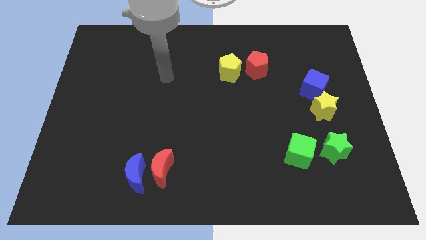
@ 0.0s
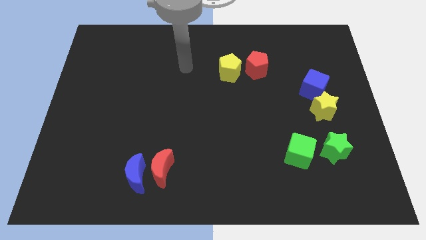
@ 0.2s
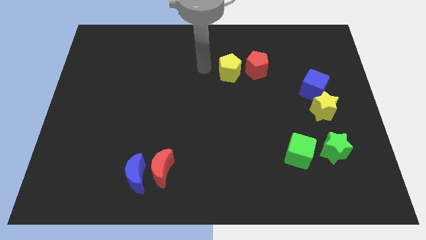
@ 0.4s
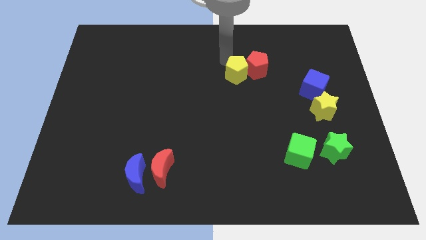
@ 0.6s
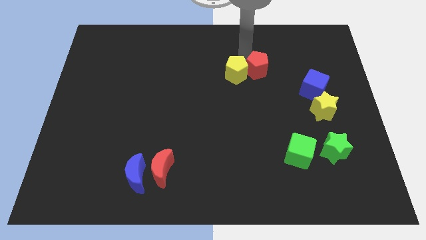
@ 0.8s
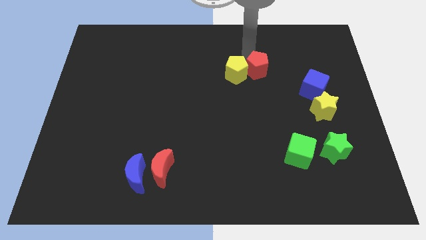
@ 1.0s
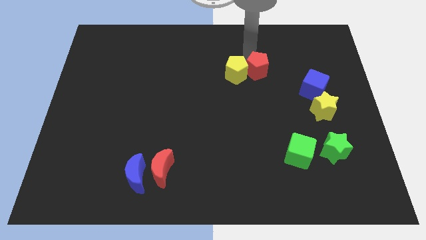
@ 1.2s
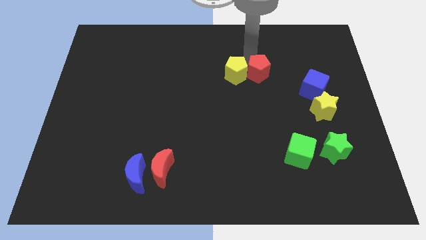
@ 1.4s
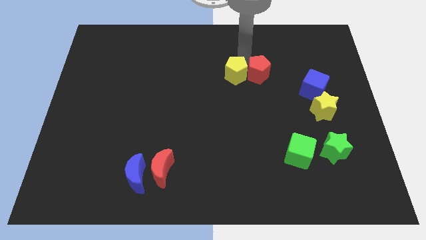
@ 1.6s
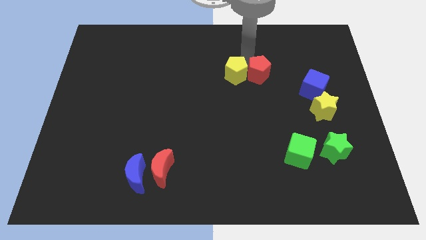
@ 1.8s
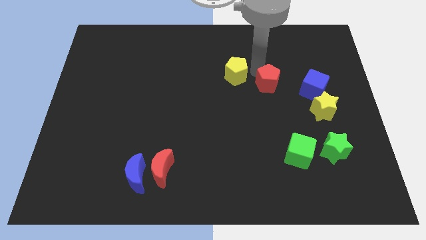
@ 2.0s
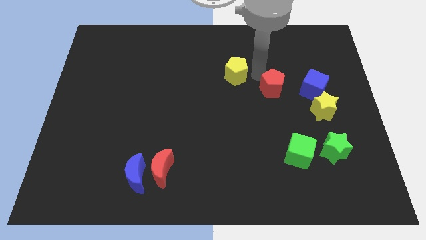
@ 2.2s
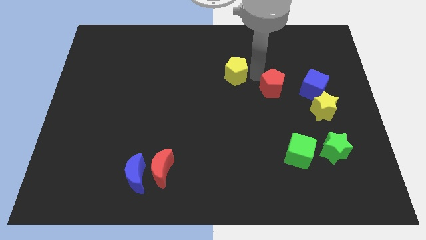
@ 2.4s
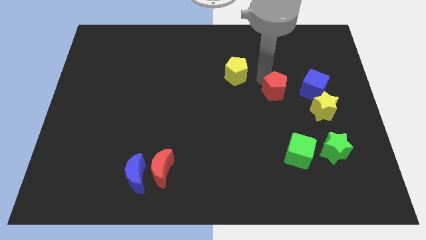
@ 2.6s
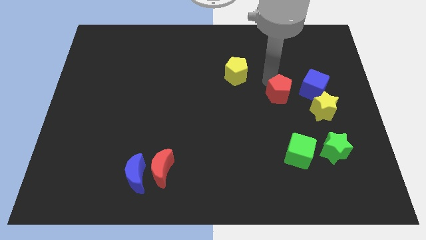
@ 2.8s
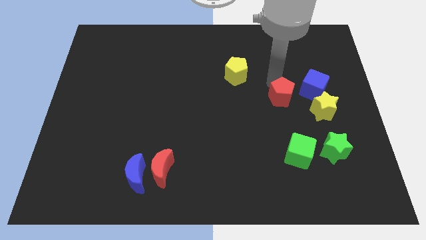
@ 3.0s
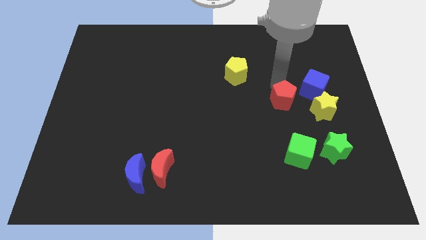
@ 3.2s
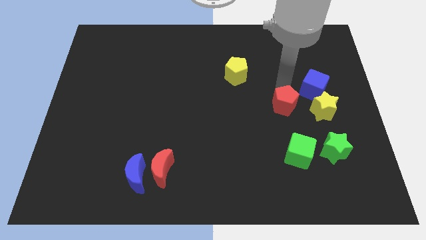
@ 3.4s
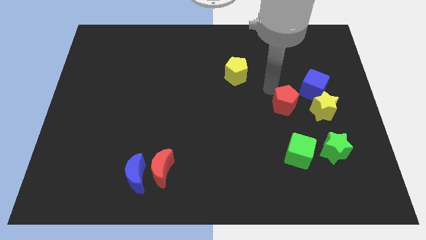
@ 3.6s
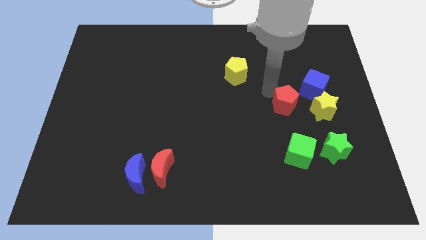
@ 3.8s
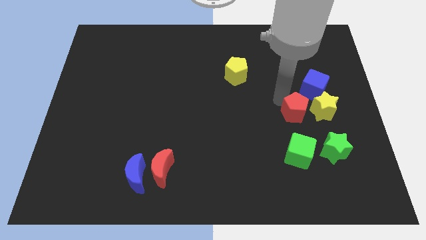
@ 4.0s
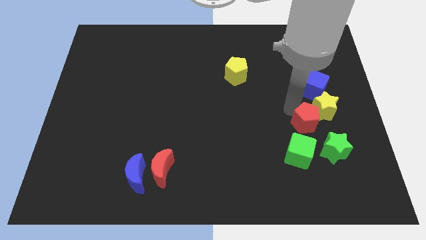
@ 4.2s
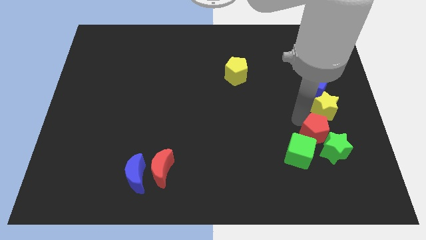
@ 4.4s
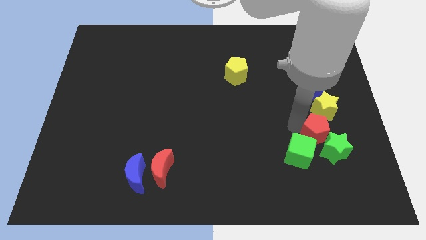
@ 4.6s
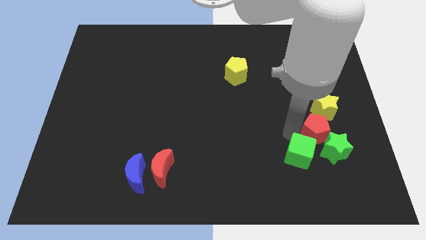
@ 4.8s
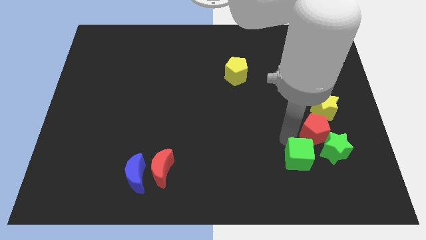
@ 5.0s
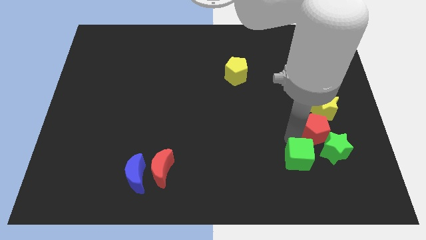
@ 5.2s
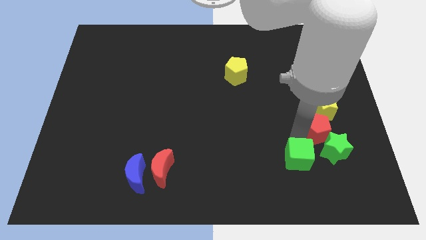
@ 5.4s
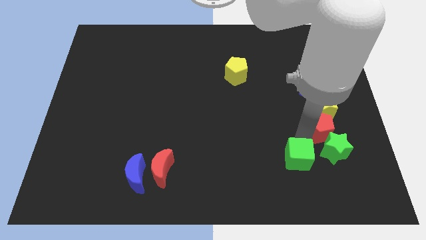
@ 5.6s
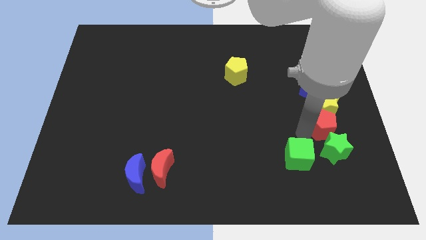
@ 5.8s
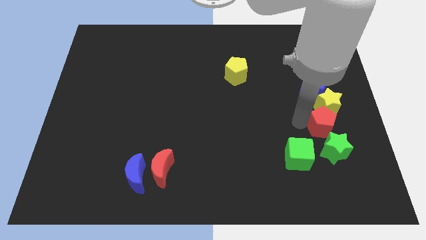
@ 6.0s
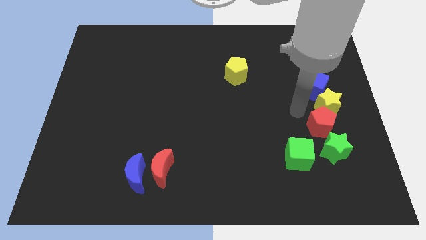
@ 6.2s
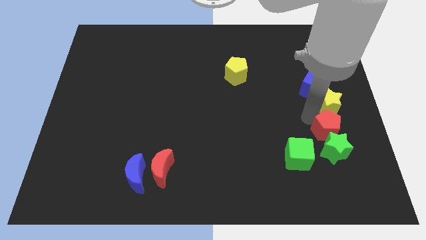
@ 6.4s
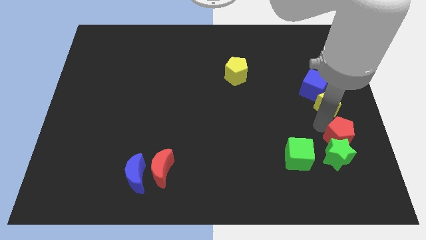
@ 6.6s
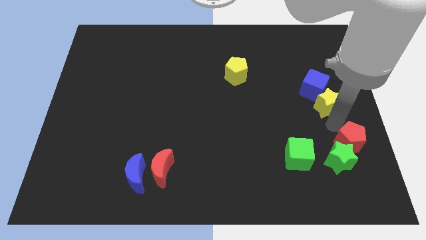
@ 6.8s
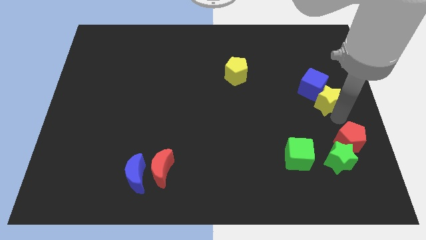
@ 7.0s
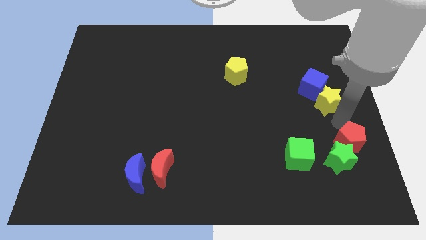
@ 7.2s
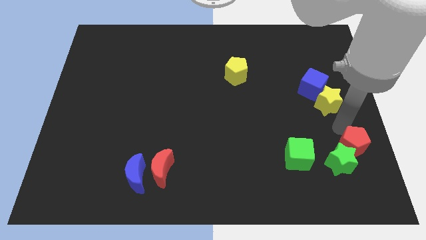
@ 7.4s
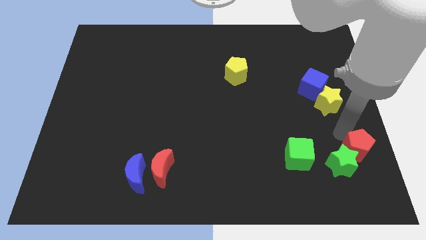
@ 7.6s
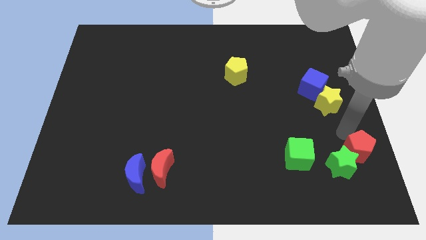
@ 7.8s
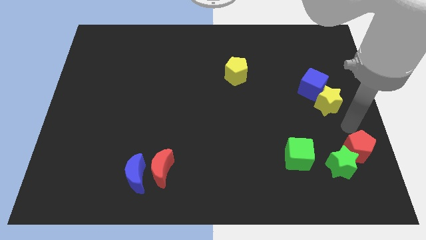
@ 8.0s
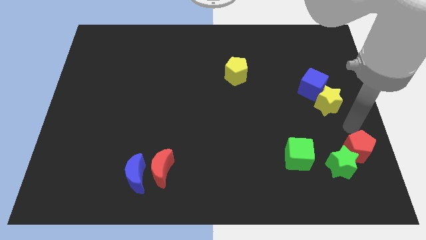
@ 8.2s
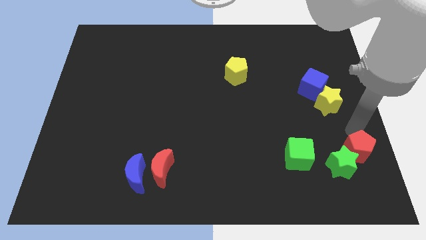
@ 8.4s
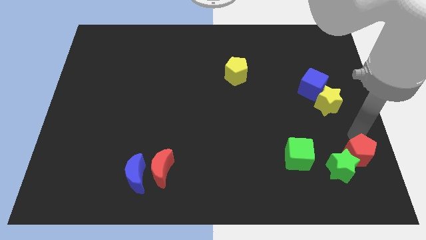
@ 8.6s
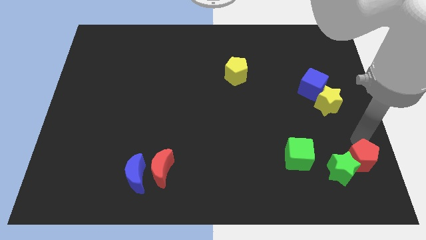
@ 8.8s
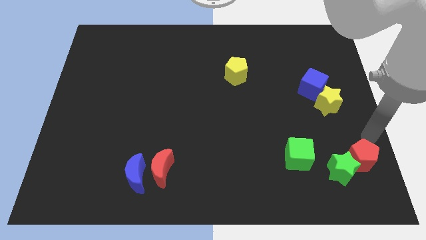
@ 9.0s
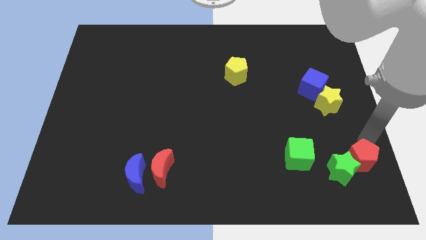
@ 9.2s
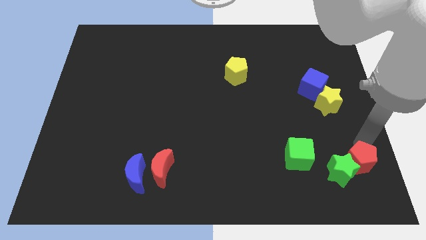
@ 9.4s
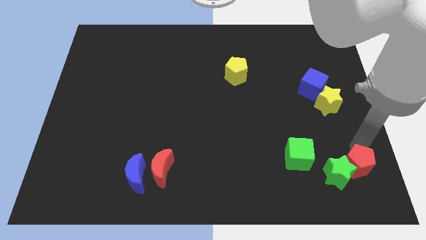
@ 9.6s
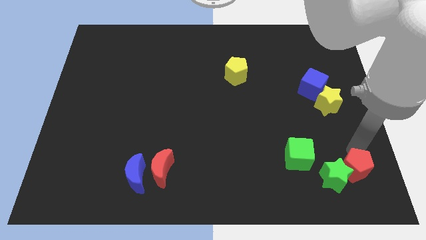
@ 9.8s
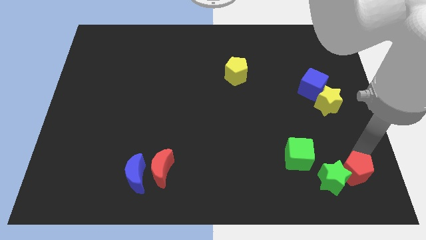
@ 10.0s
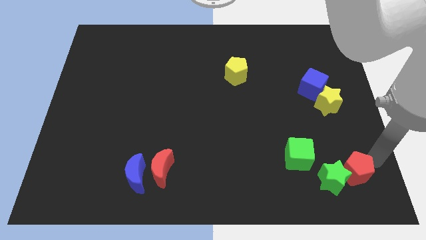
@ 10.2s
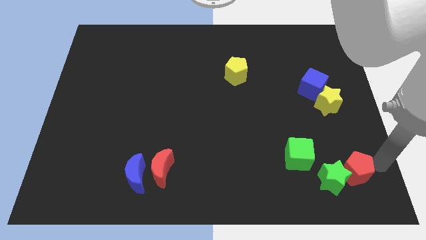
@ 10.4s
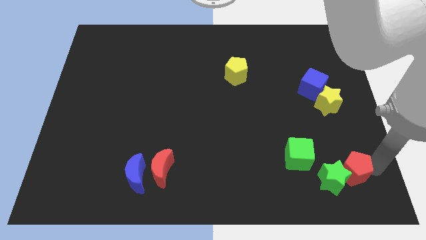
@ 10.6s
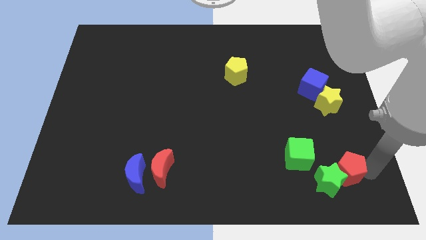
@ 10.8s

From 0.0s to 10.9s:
slide the red pentagon diagonally down and to the right of the green cube

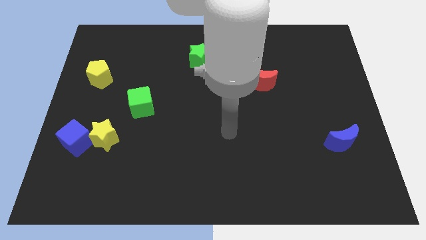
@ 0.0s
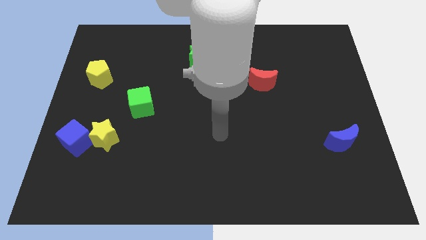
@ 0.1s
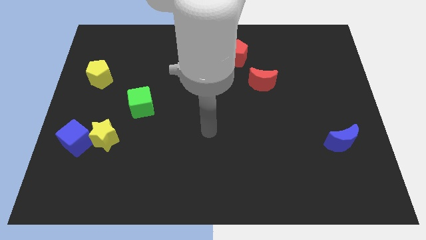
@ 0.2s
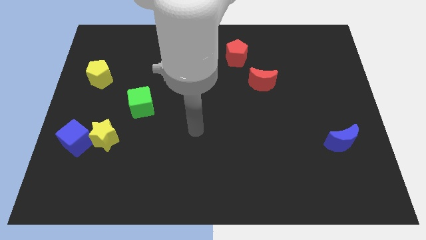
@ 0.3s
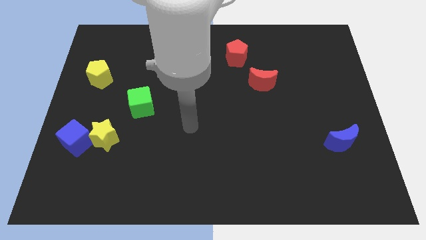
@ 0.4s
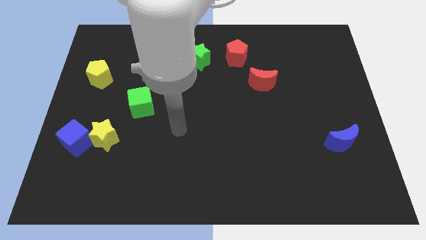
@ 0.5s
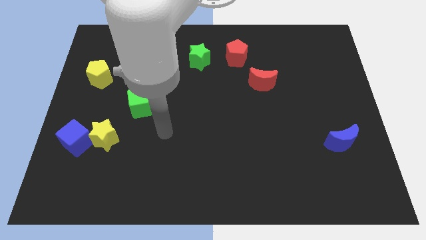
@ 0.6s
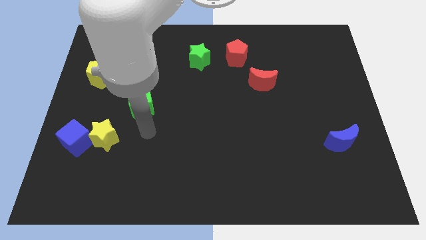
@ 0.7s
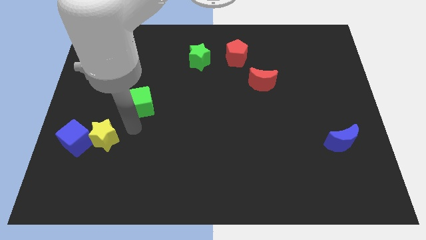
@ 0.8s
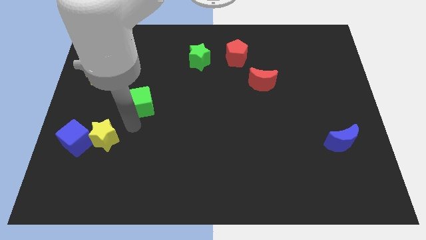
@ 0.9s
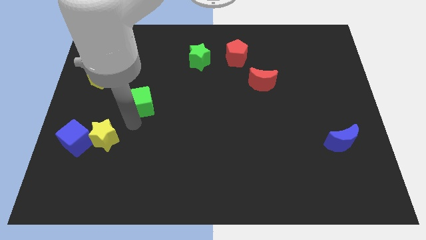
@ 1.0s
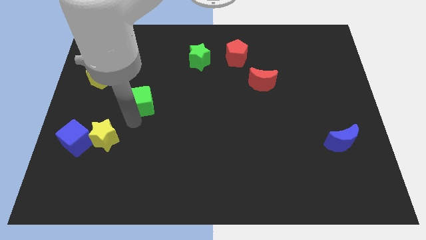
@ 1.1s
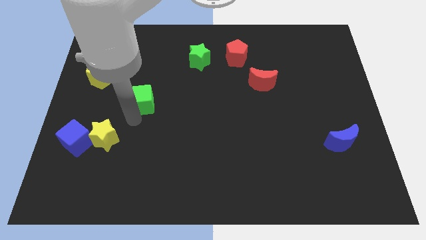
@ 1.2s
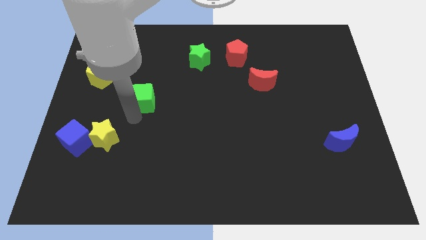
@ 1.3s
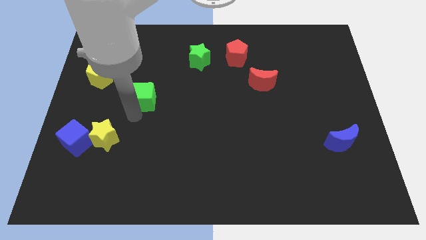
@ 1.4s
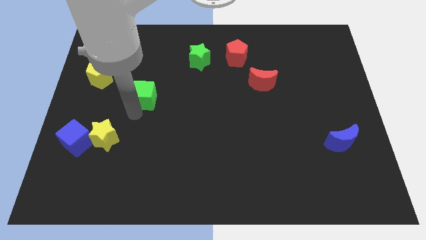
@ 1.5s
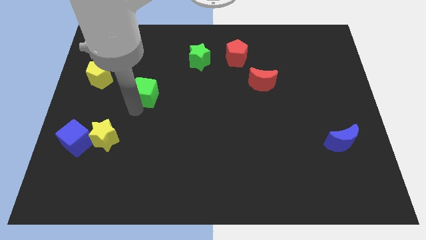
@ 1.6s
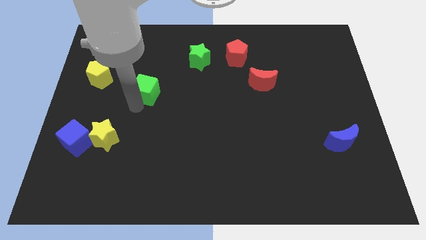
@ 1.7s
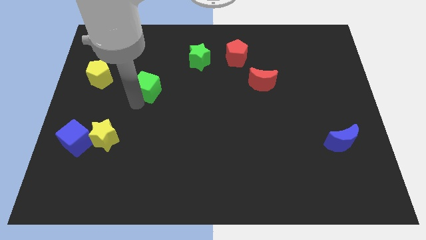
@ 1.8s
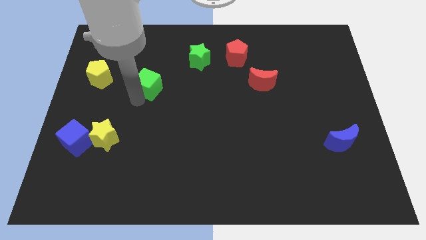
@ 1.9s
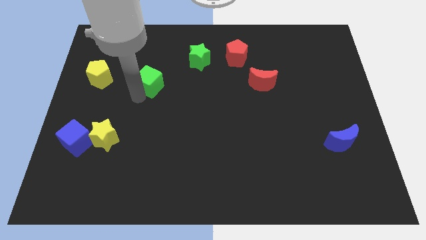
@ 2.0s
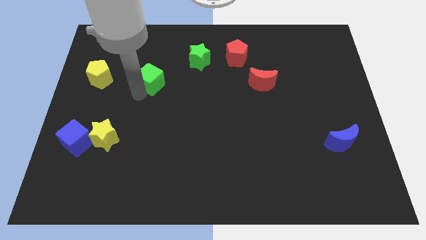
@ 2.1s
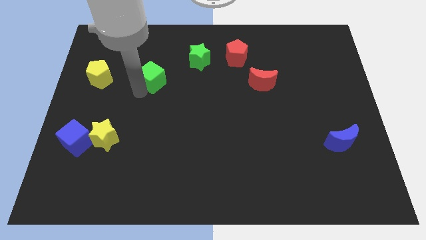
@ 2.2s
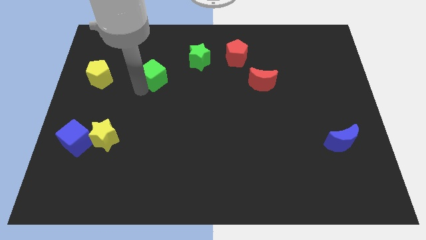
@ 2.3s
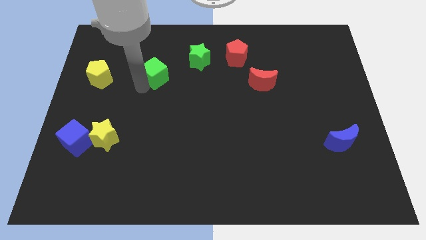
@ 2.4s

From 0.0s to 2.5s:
move the green cube diagonally down and to the left of the green star
